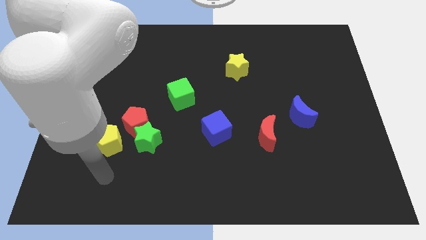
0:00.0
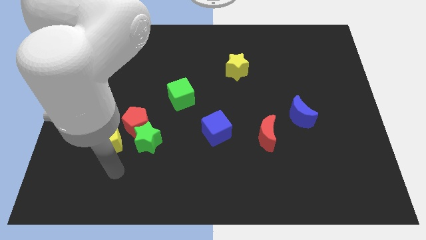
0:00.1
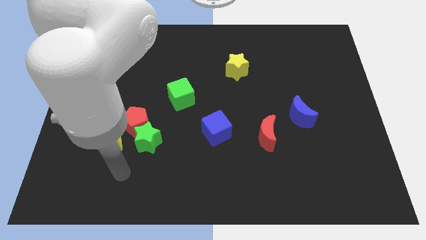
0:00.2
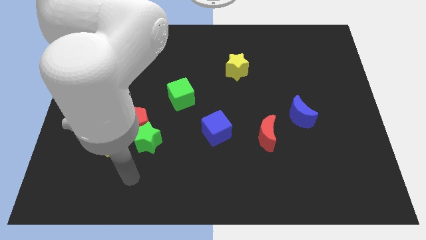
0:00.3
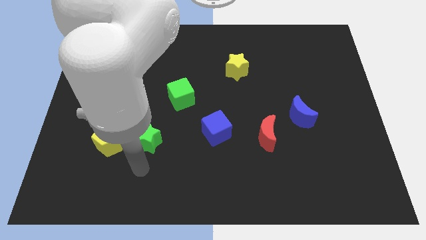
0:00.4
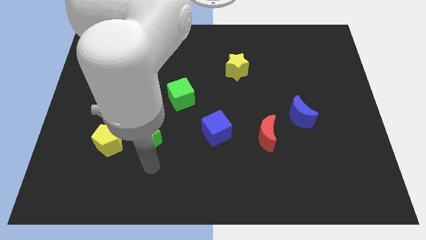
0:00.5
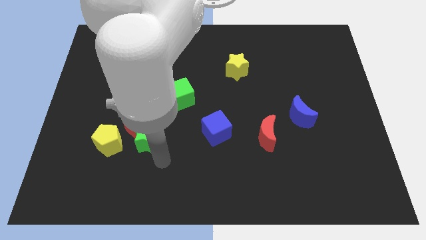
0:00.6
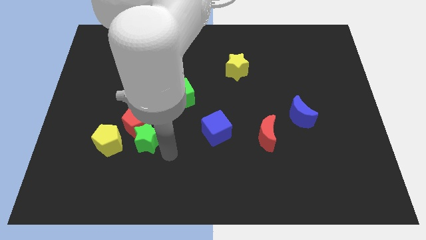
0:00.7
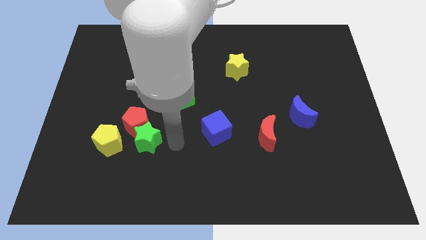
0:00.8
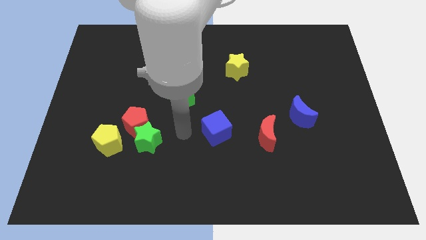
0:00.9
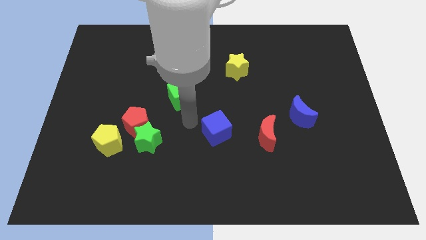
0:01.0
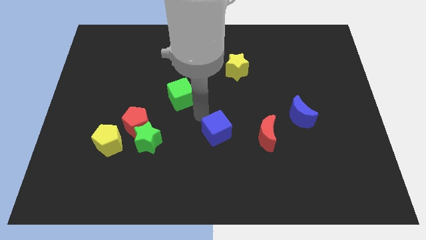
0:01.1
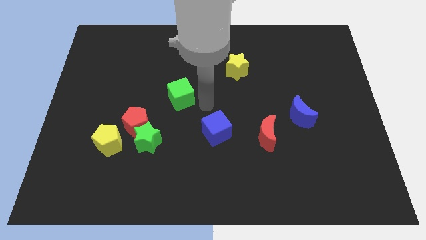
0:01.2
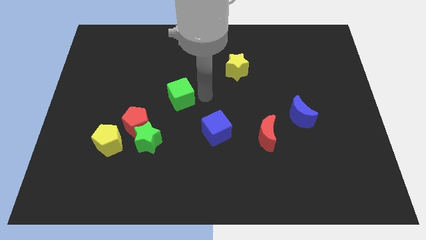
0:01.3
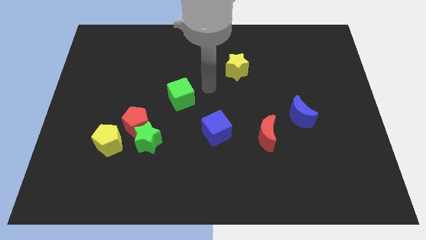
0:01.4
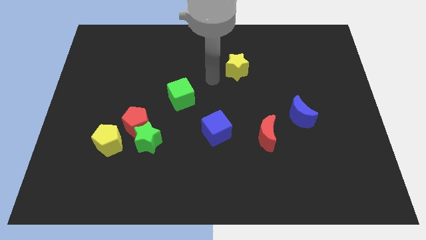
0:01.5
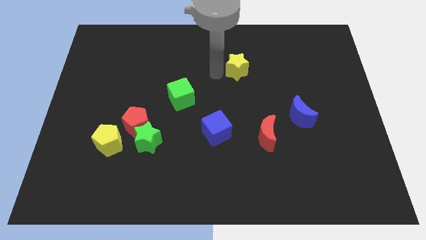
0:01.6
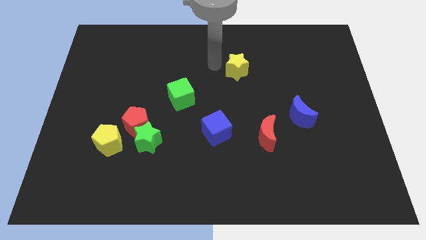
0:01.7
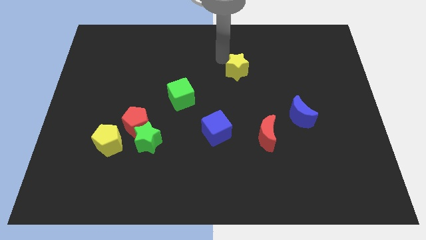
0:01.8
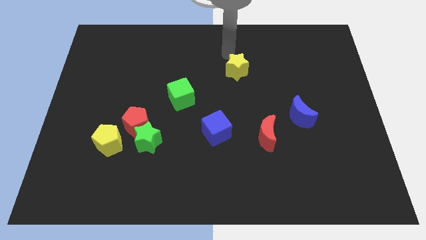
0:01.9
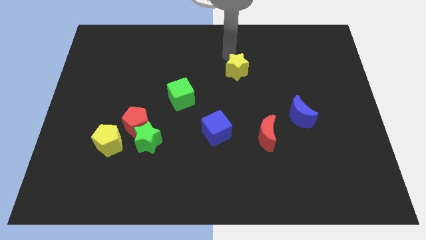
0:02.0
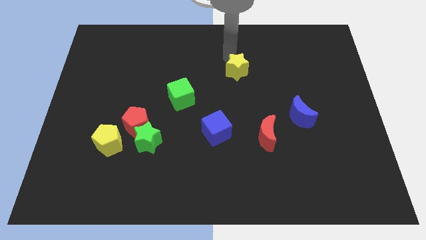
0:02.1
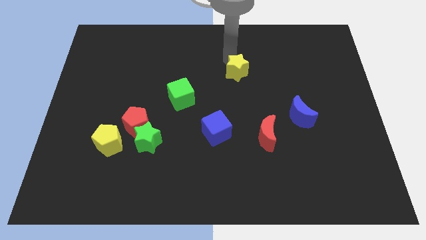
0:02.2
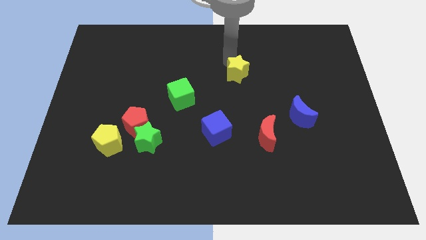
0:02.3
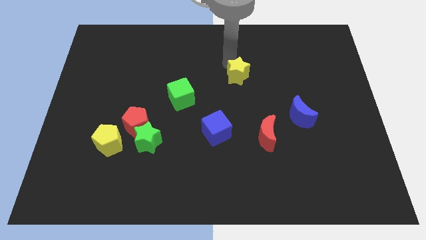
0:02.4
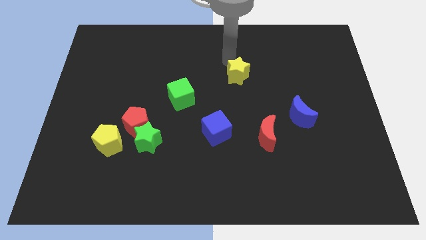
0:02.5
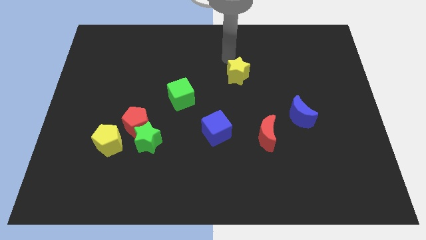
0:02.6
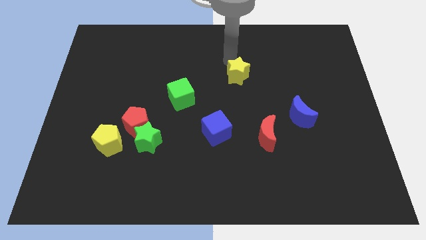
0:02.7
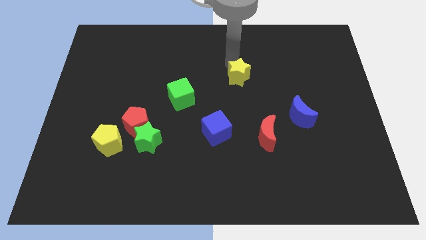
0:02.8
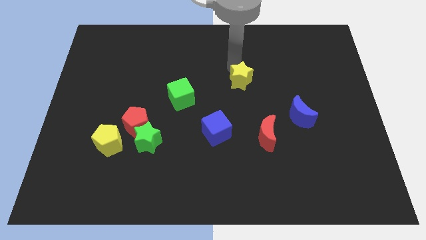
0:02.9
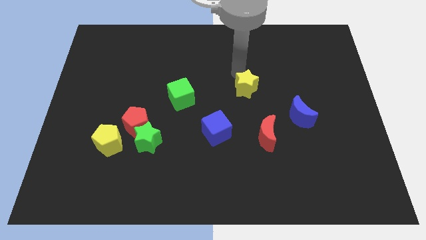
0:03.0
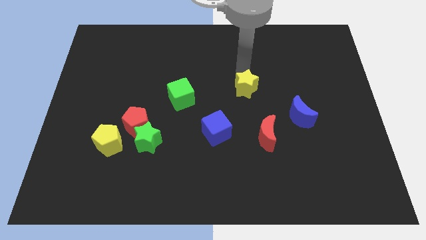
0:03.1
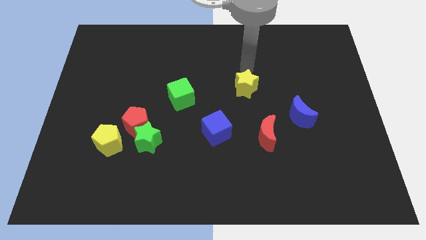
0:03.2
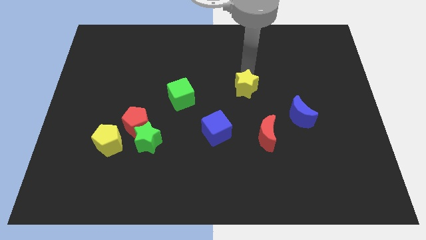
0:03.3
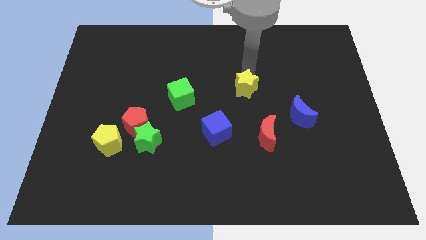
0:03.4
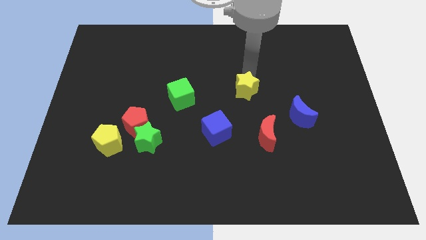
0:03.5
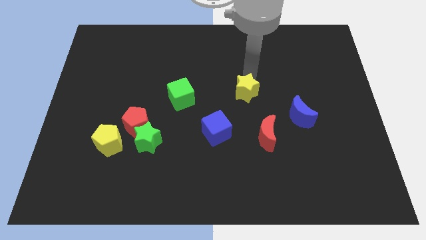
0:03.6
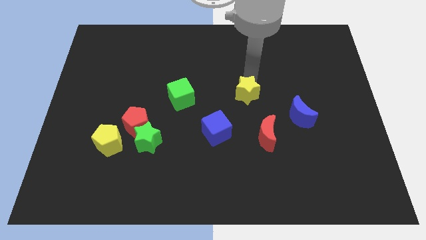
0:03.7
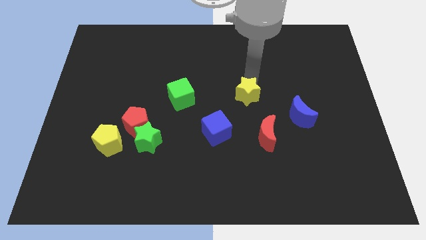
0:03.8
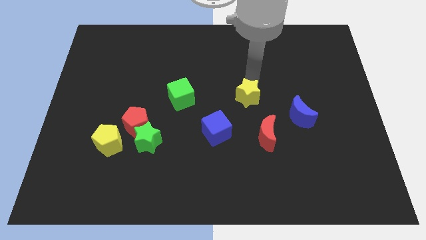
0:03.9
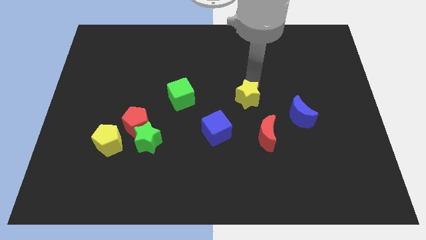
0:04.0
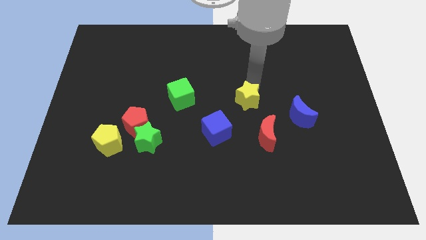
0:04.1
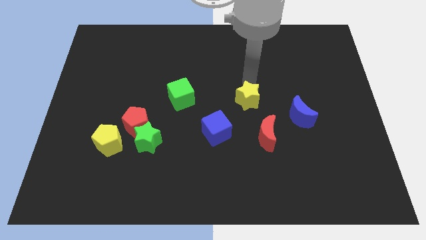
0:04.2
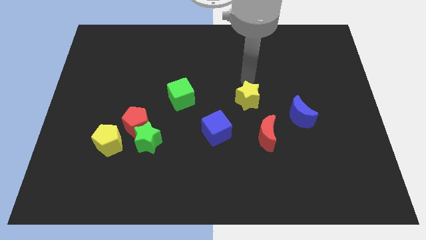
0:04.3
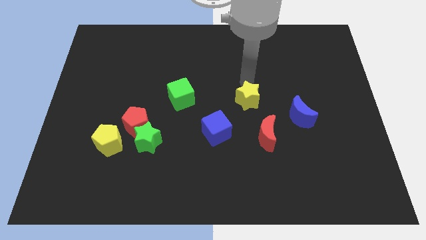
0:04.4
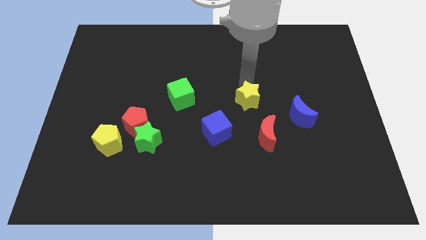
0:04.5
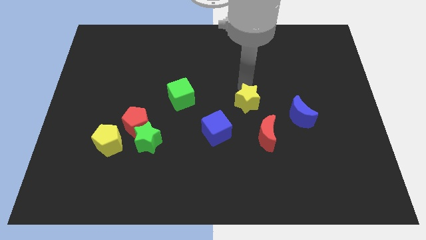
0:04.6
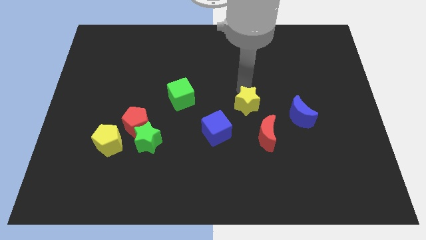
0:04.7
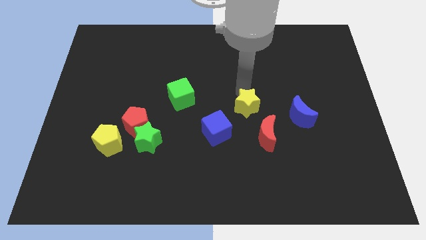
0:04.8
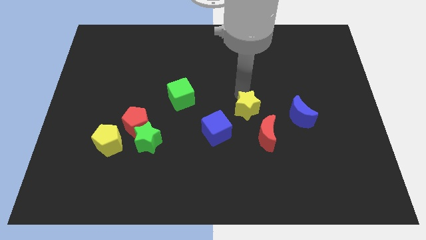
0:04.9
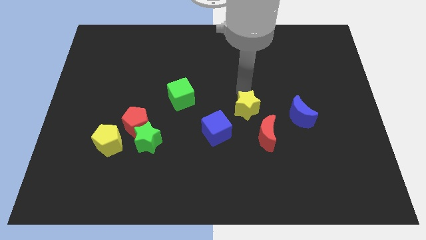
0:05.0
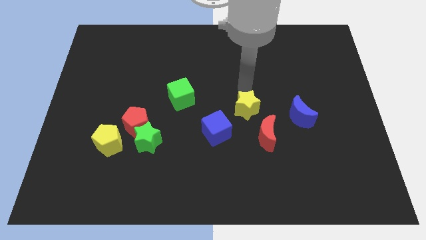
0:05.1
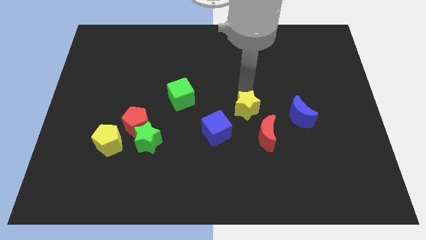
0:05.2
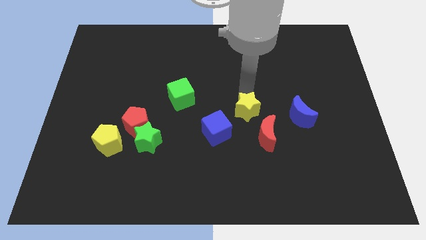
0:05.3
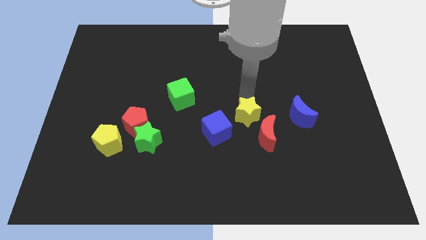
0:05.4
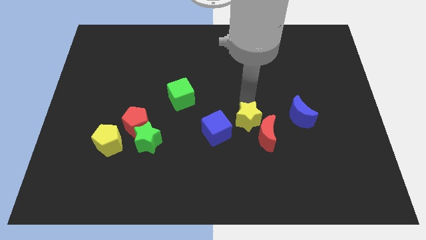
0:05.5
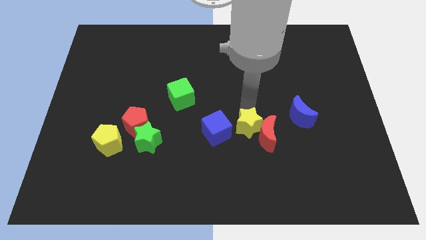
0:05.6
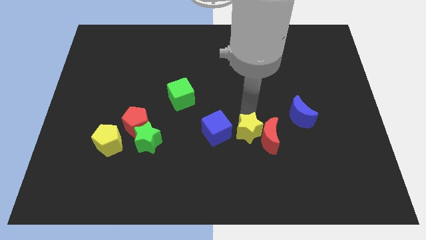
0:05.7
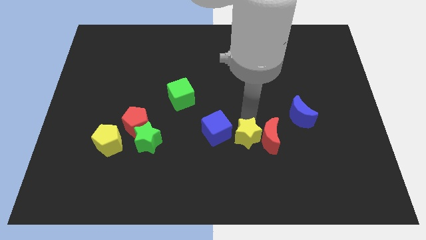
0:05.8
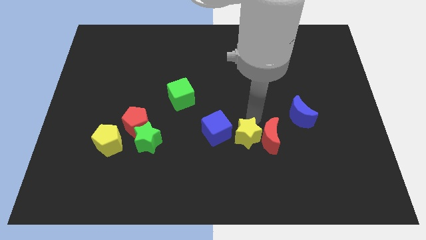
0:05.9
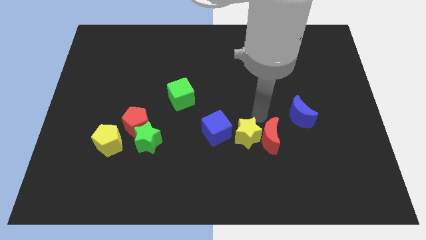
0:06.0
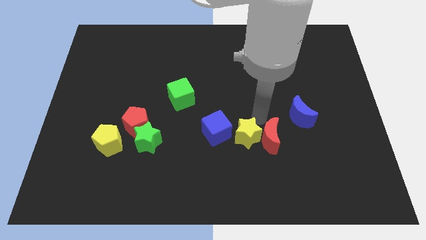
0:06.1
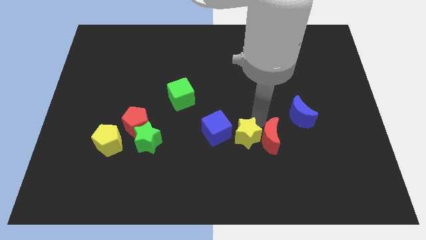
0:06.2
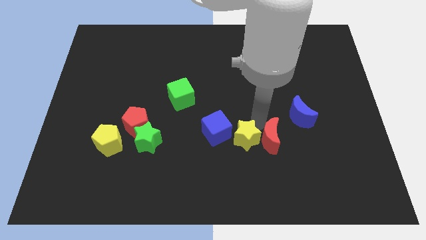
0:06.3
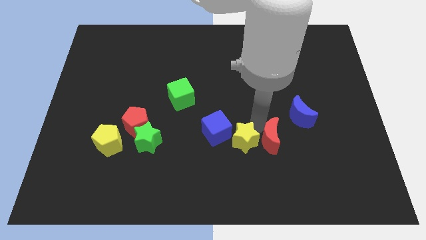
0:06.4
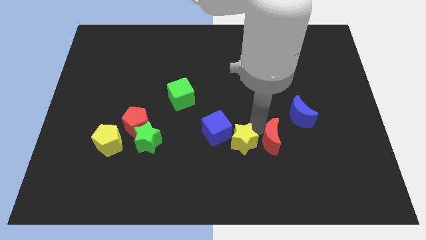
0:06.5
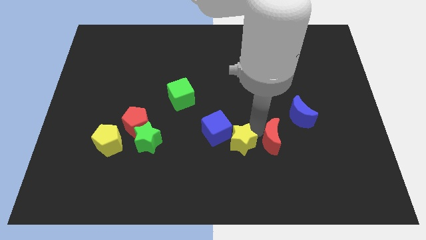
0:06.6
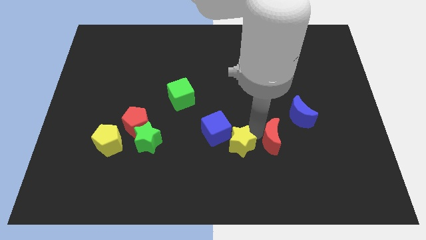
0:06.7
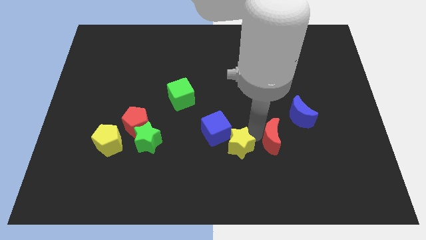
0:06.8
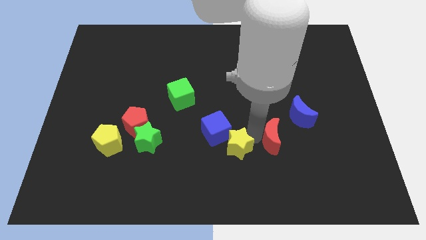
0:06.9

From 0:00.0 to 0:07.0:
put the yellow star to the bottom of the blue cube

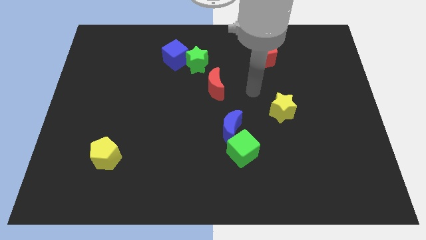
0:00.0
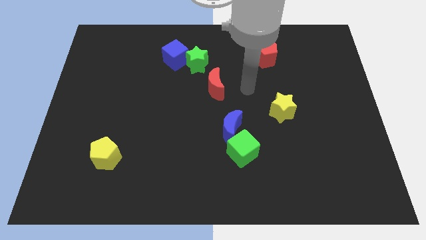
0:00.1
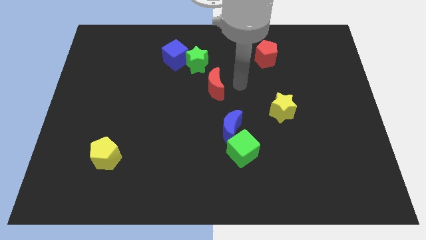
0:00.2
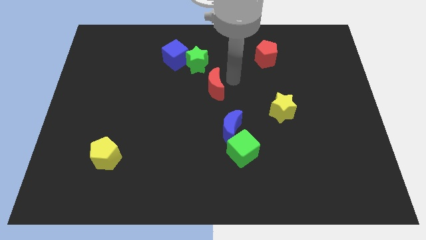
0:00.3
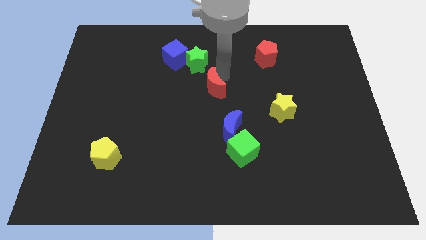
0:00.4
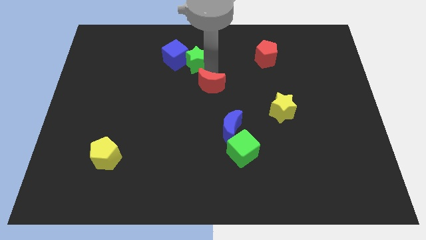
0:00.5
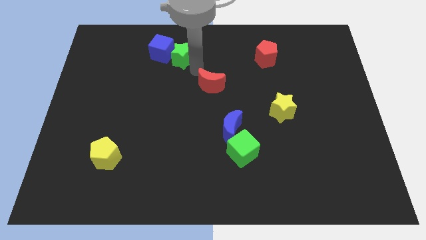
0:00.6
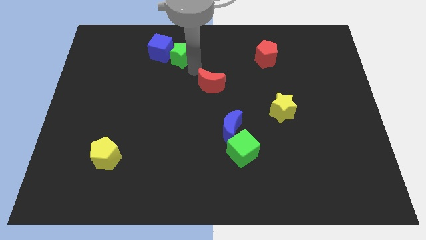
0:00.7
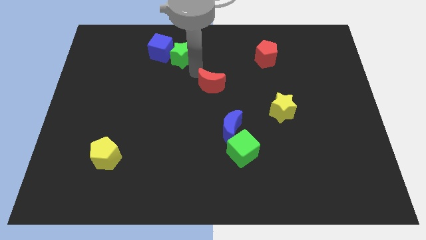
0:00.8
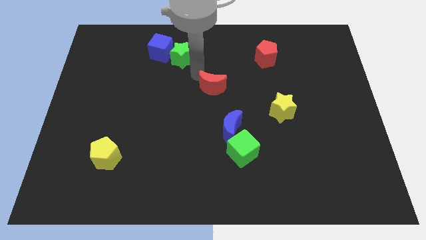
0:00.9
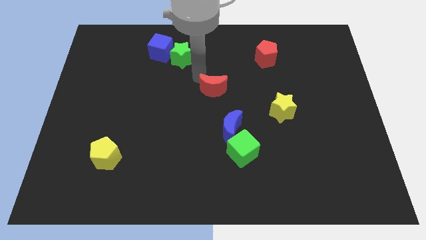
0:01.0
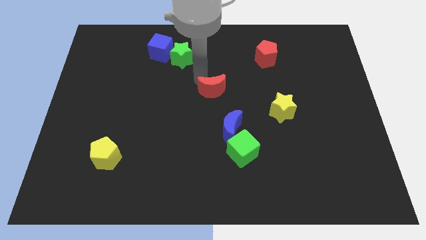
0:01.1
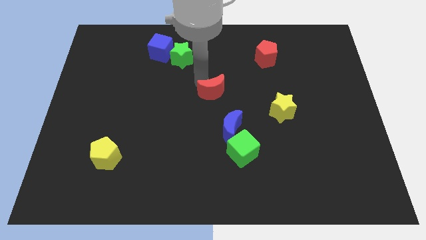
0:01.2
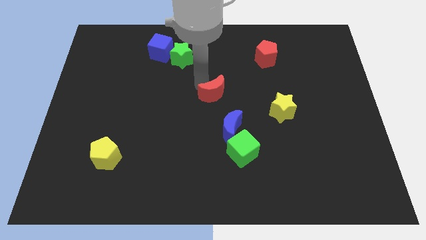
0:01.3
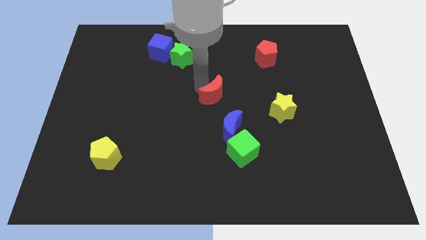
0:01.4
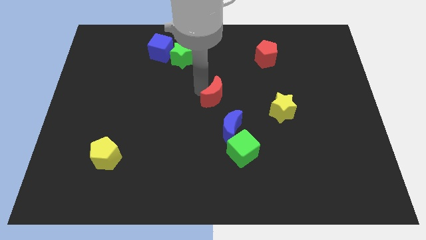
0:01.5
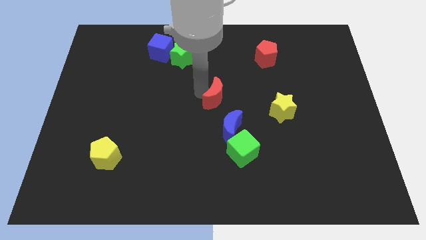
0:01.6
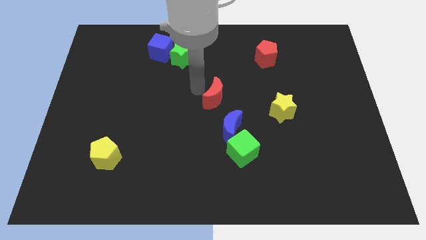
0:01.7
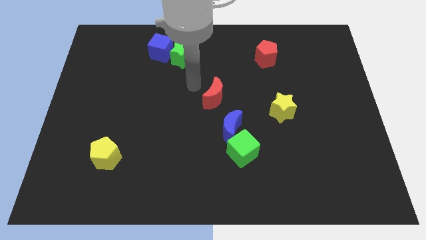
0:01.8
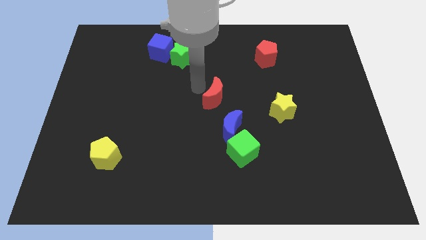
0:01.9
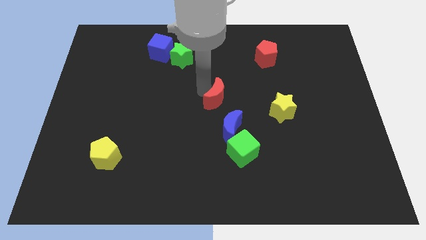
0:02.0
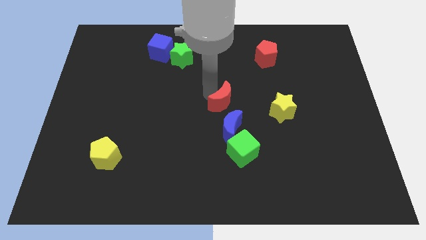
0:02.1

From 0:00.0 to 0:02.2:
push the red moon left of the yellow star
